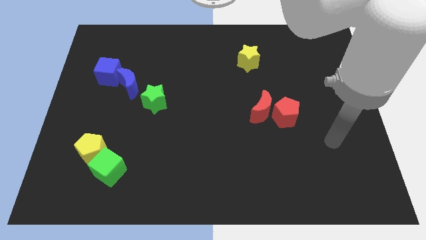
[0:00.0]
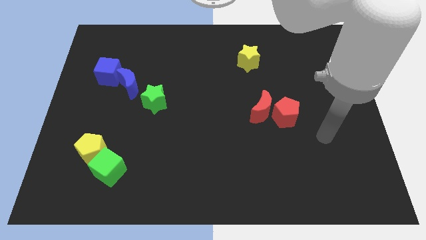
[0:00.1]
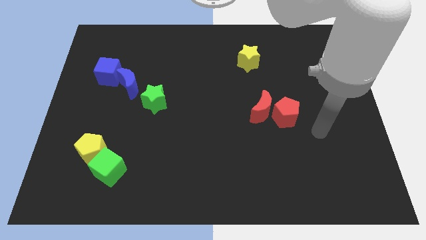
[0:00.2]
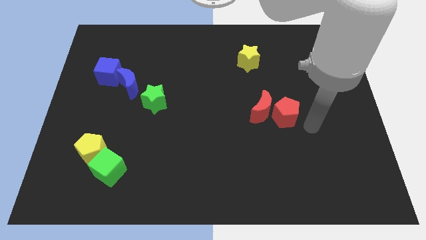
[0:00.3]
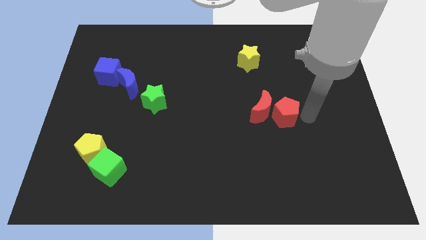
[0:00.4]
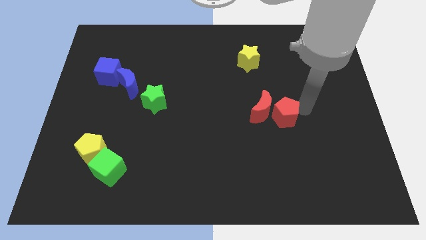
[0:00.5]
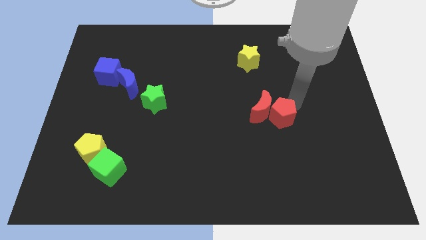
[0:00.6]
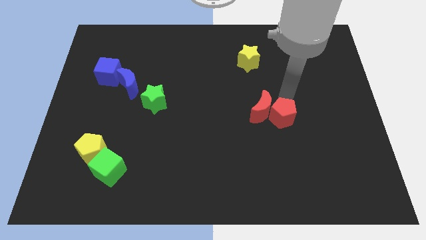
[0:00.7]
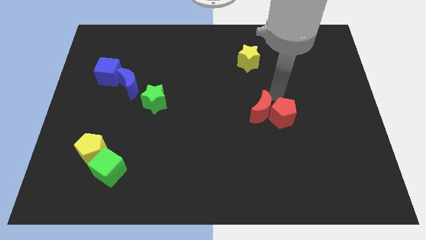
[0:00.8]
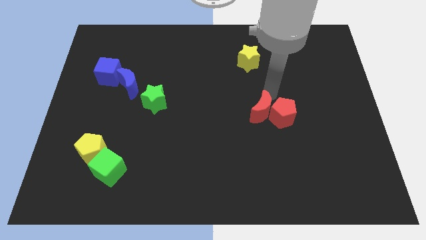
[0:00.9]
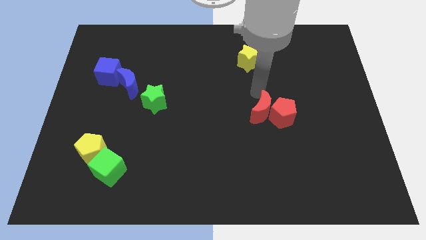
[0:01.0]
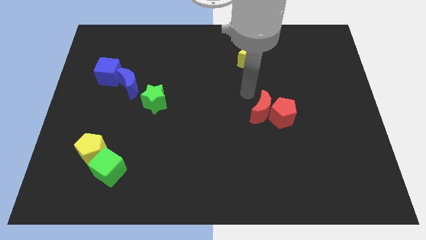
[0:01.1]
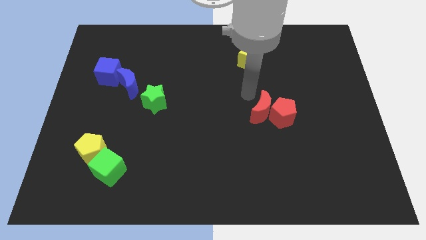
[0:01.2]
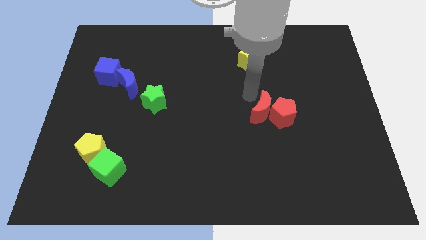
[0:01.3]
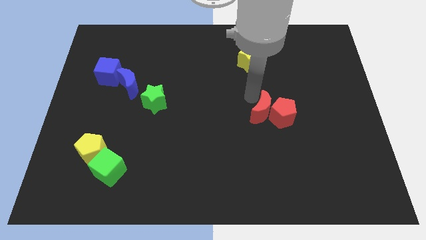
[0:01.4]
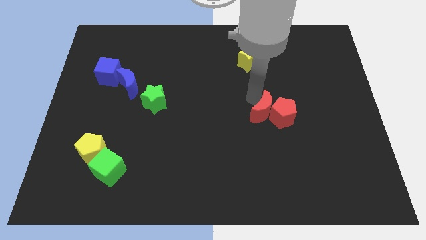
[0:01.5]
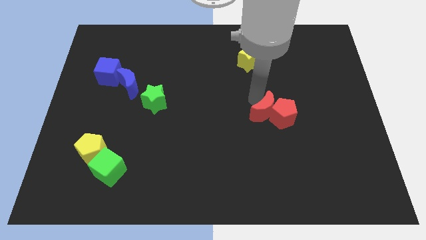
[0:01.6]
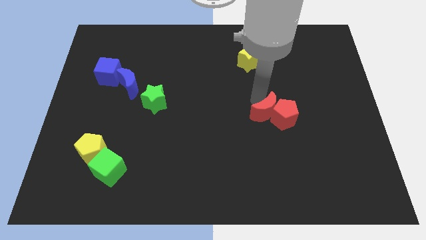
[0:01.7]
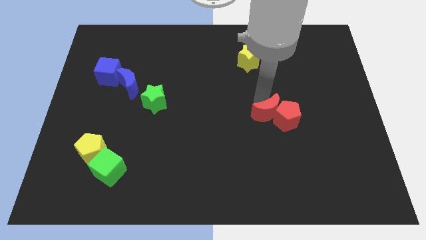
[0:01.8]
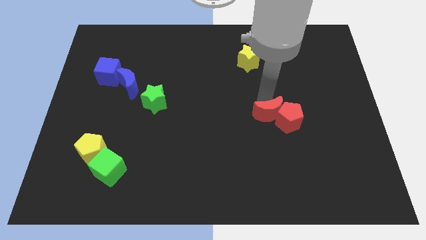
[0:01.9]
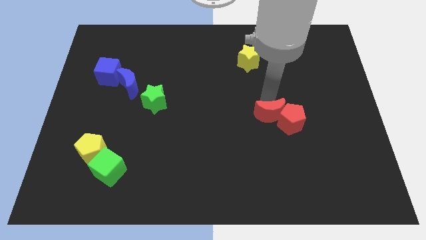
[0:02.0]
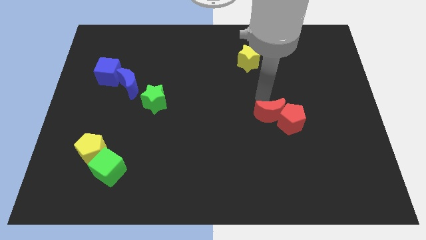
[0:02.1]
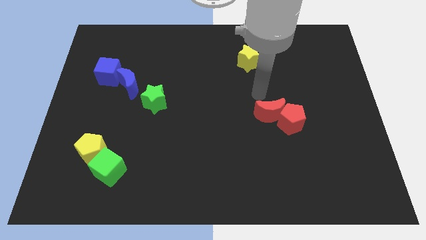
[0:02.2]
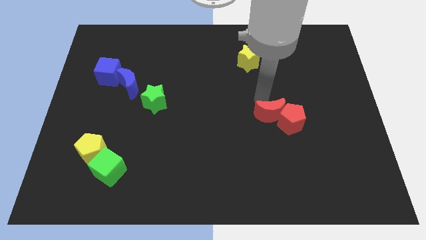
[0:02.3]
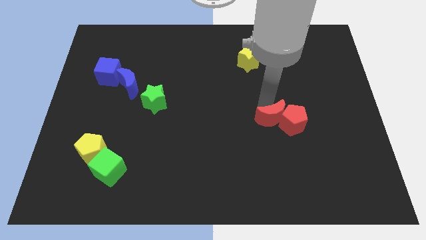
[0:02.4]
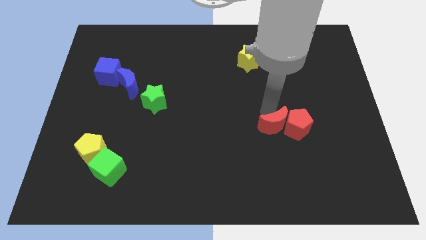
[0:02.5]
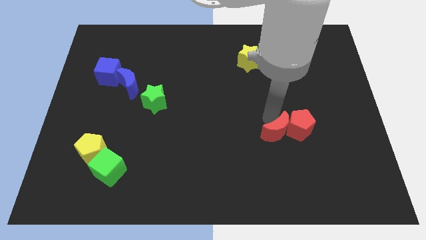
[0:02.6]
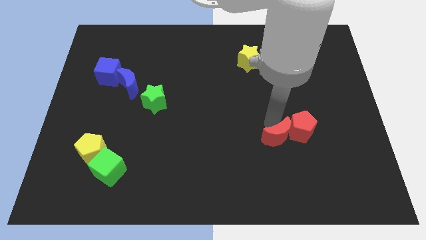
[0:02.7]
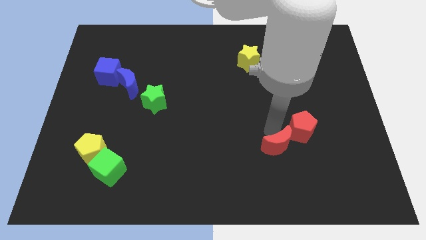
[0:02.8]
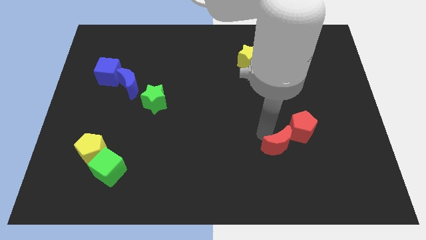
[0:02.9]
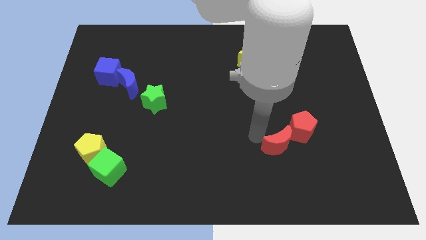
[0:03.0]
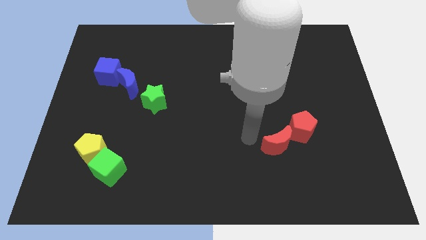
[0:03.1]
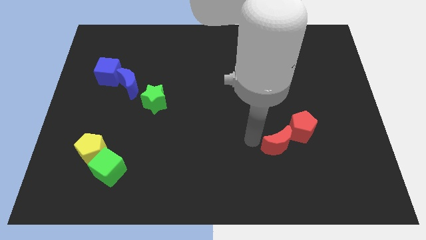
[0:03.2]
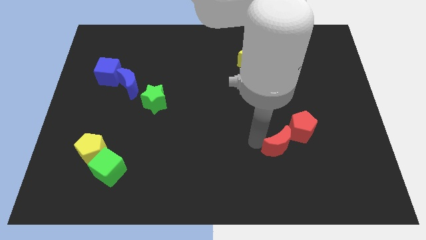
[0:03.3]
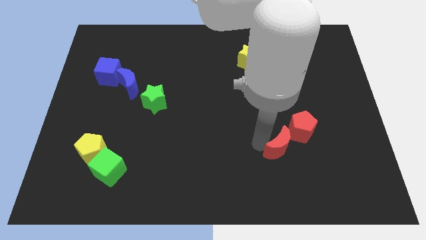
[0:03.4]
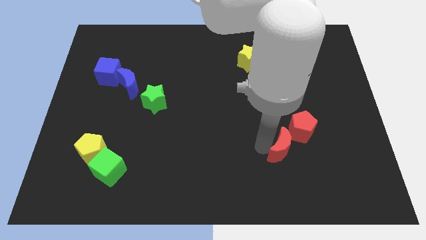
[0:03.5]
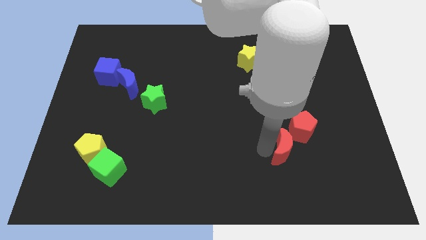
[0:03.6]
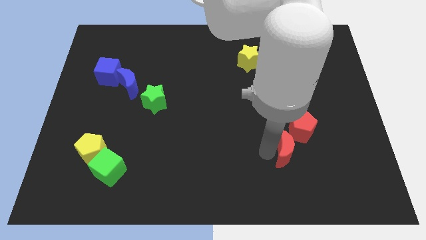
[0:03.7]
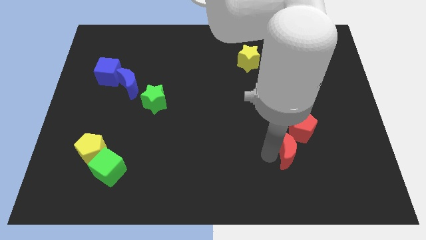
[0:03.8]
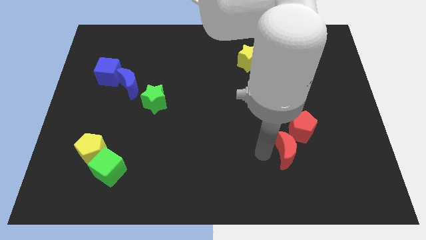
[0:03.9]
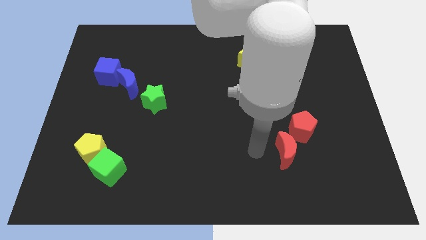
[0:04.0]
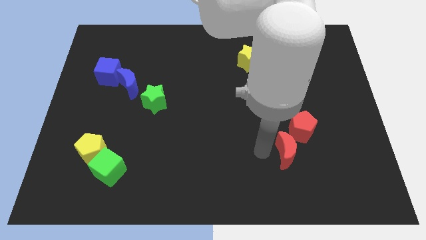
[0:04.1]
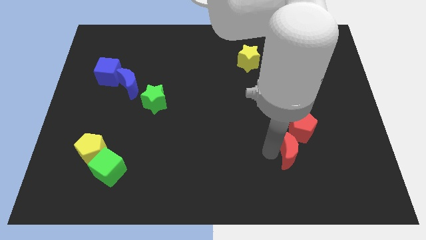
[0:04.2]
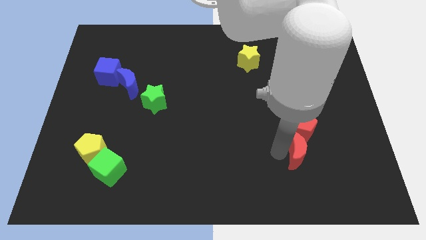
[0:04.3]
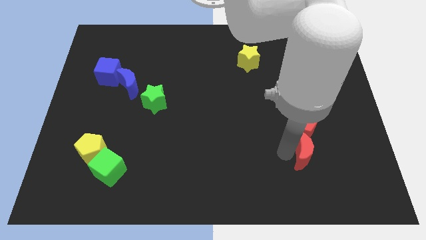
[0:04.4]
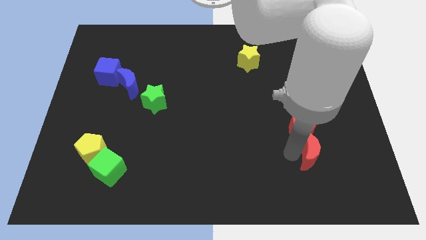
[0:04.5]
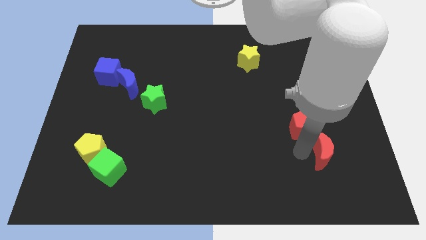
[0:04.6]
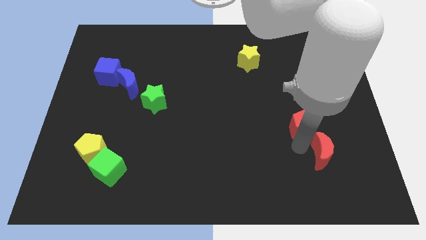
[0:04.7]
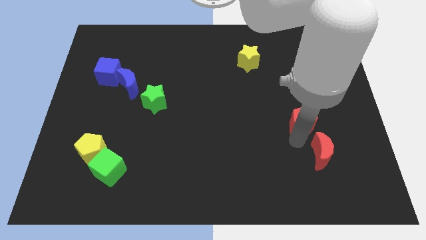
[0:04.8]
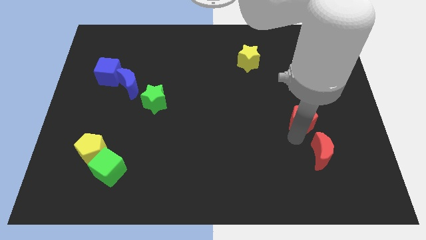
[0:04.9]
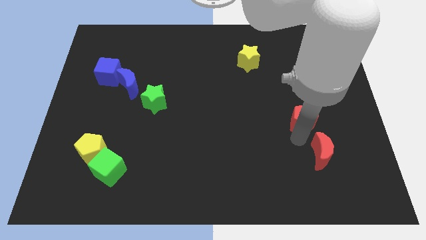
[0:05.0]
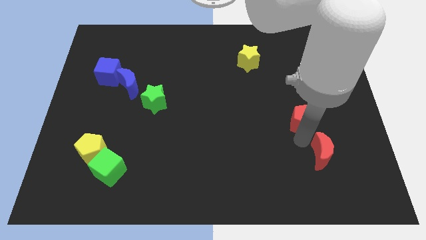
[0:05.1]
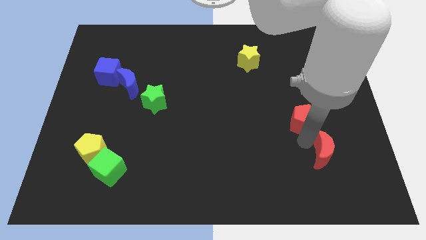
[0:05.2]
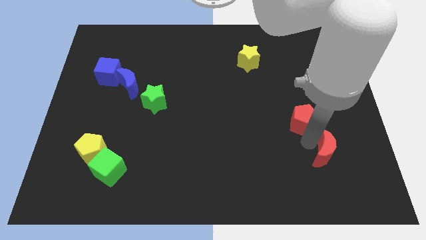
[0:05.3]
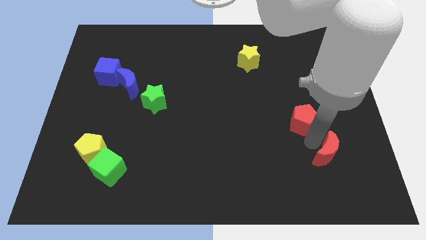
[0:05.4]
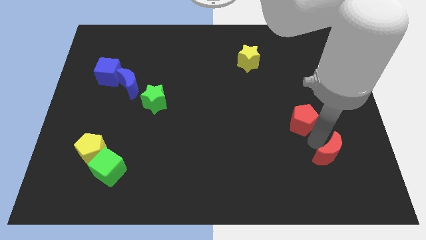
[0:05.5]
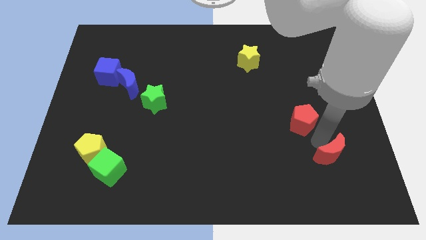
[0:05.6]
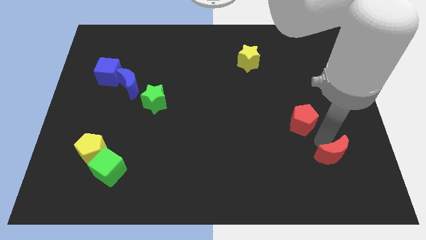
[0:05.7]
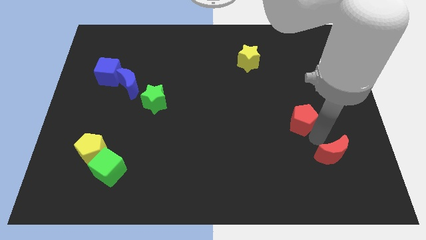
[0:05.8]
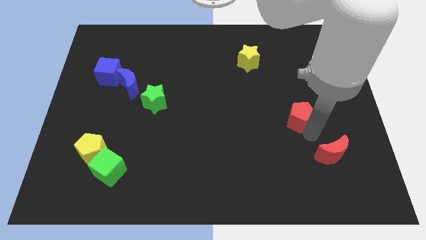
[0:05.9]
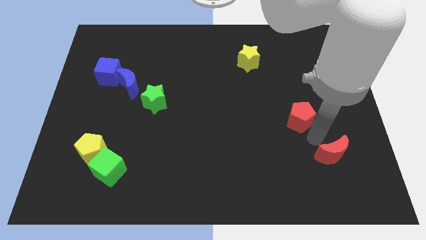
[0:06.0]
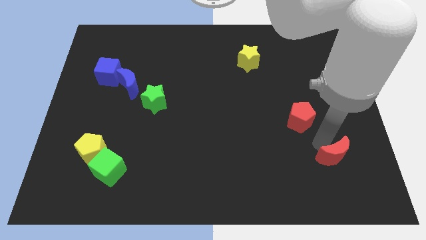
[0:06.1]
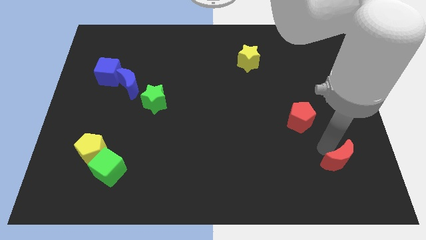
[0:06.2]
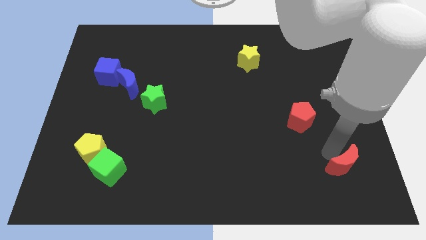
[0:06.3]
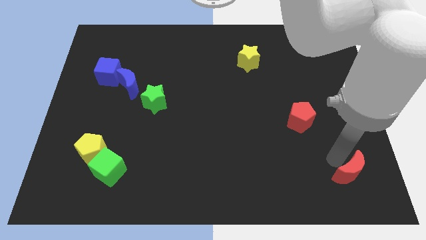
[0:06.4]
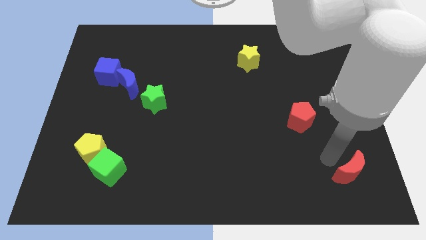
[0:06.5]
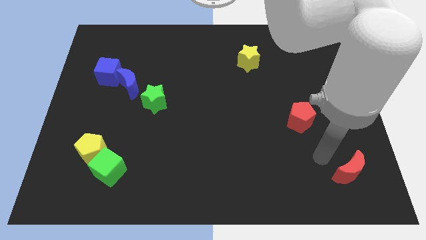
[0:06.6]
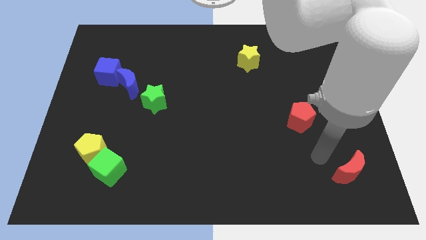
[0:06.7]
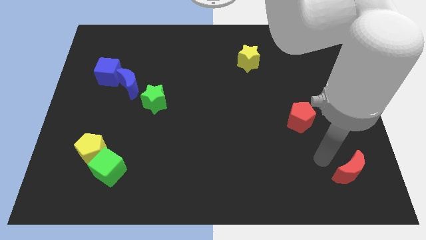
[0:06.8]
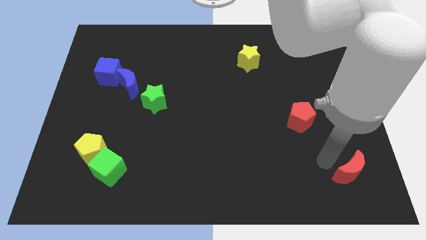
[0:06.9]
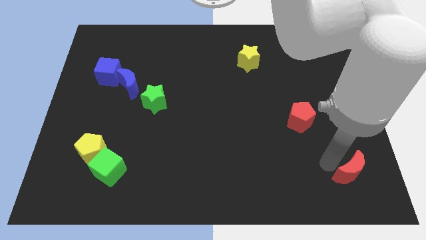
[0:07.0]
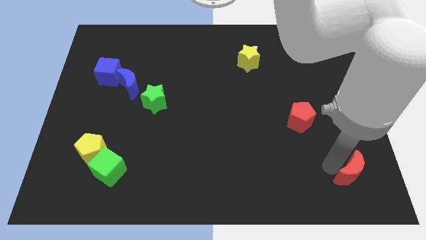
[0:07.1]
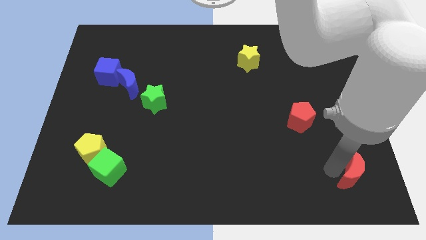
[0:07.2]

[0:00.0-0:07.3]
move the red moon to the bottom right corner
